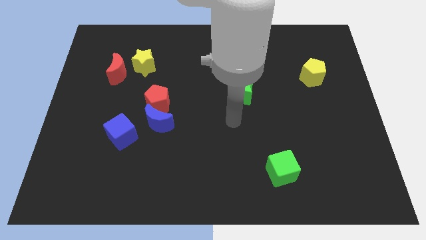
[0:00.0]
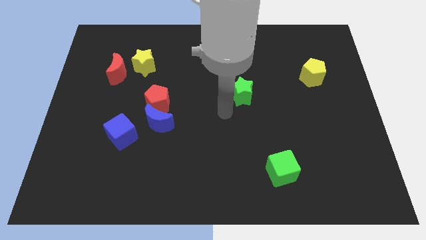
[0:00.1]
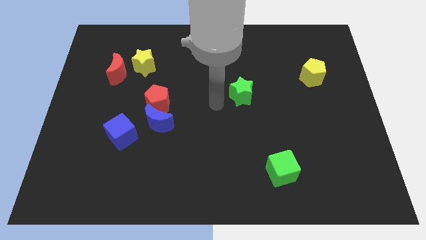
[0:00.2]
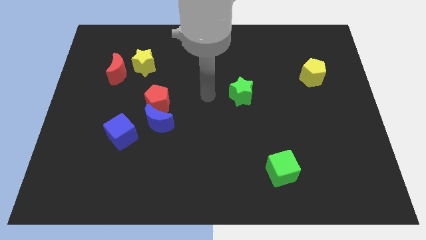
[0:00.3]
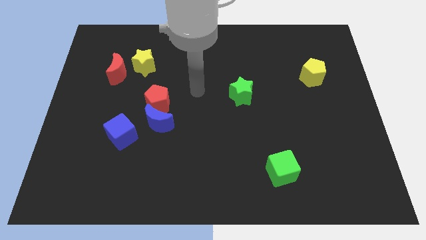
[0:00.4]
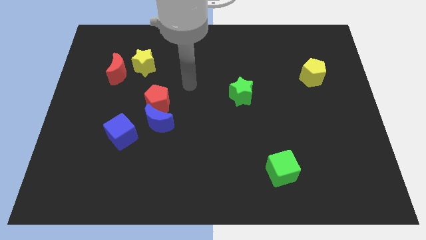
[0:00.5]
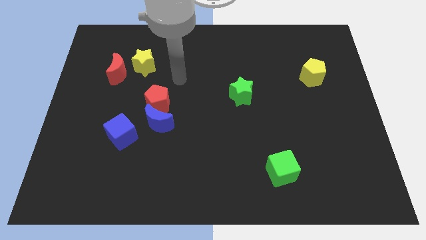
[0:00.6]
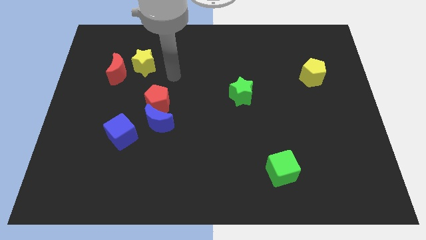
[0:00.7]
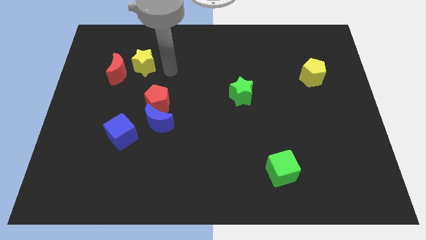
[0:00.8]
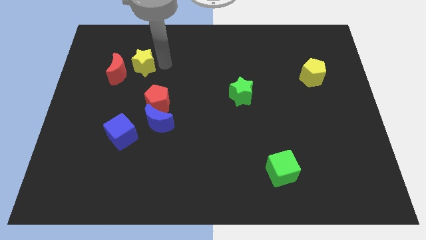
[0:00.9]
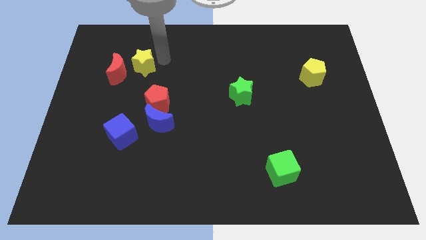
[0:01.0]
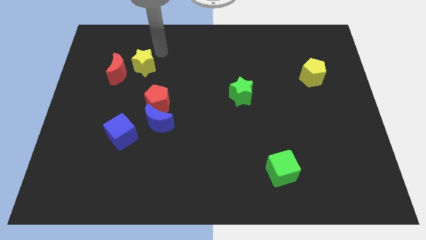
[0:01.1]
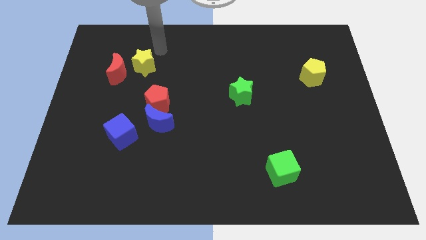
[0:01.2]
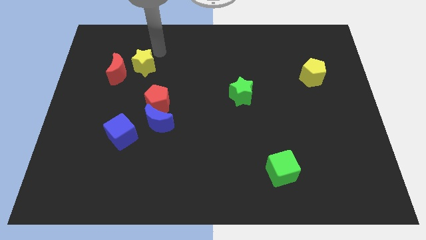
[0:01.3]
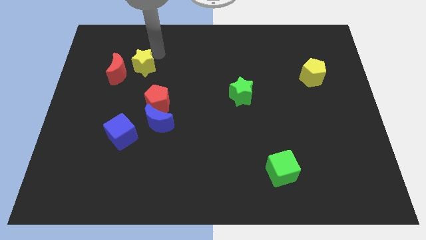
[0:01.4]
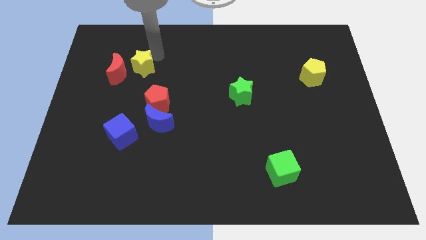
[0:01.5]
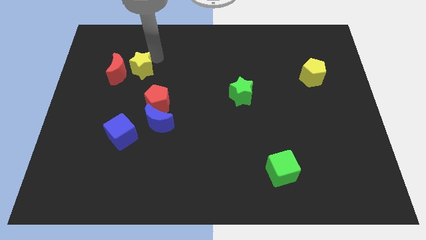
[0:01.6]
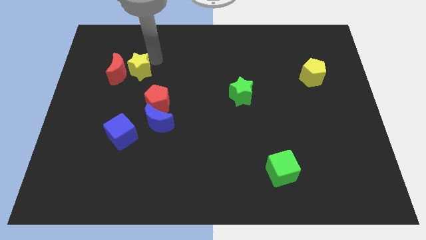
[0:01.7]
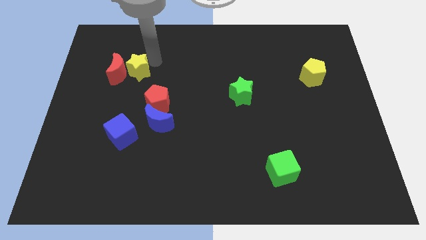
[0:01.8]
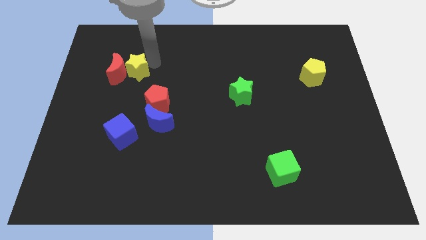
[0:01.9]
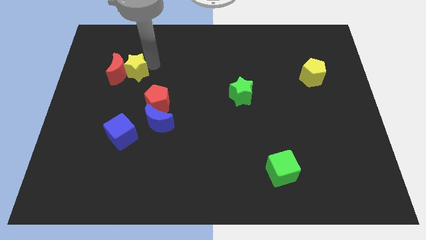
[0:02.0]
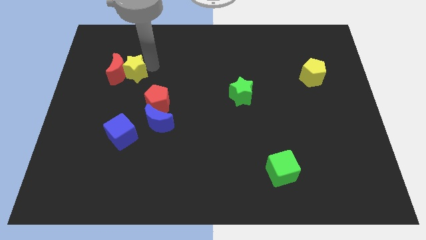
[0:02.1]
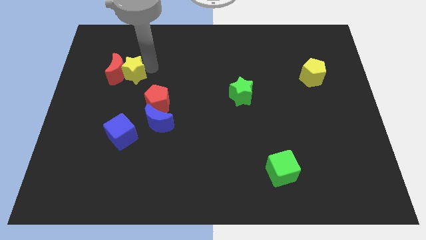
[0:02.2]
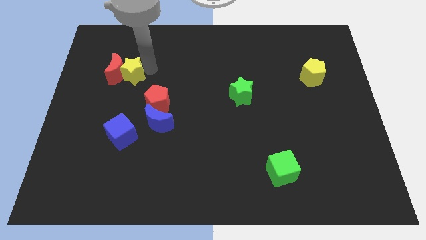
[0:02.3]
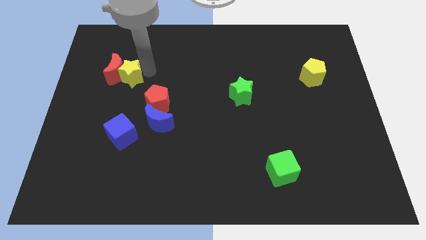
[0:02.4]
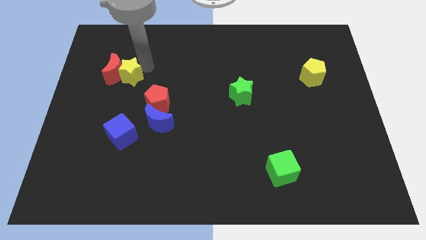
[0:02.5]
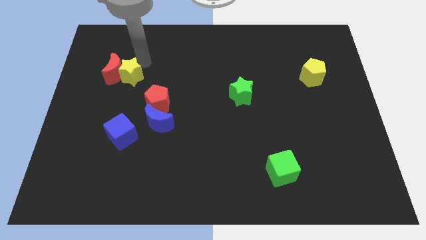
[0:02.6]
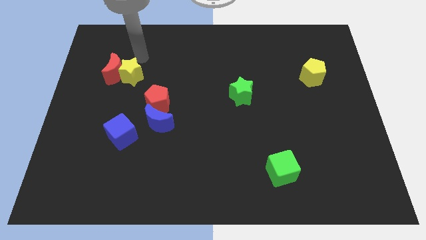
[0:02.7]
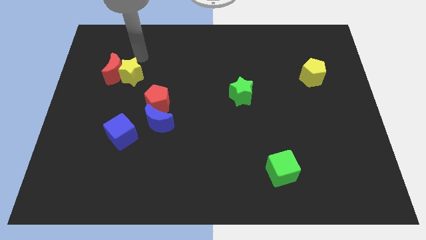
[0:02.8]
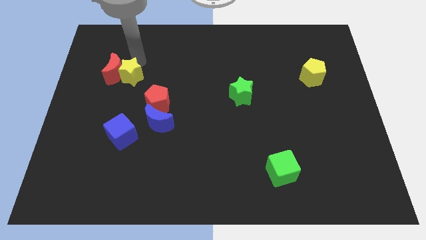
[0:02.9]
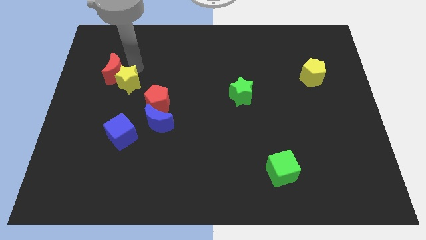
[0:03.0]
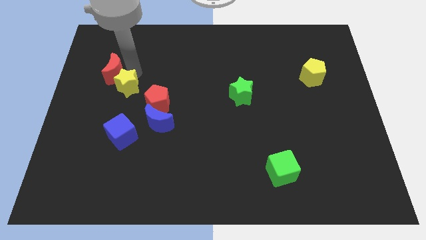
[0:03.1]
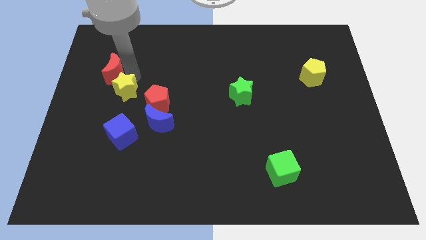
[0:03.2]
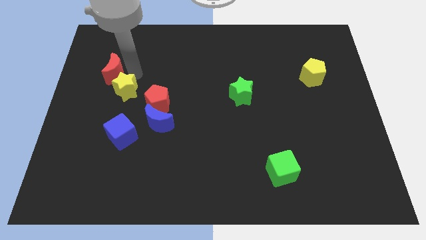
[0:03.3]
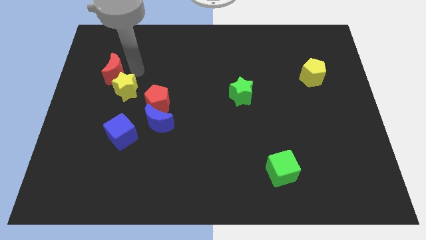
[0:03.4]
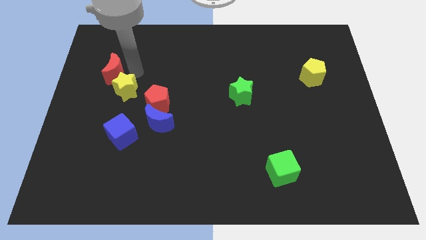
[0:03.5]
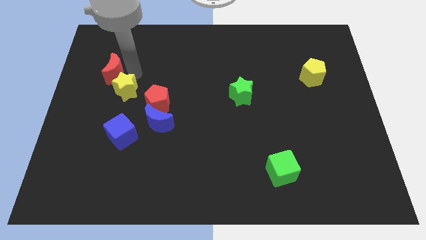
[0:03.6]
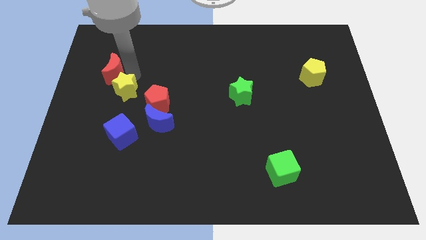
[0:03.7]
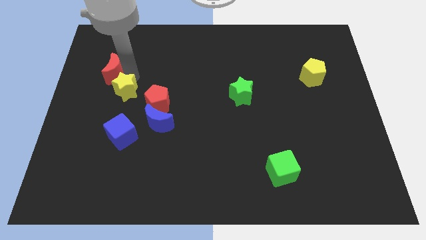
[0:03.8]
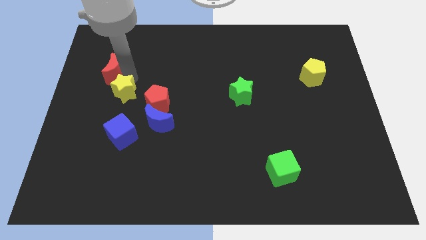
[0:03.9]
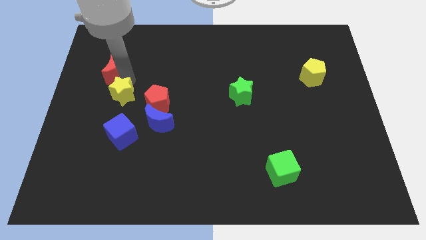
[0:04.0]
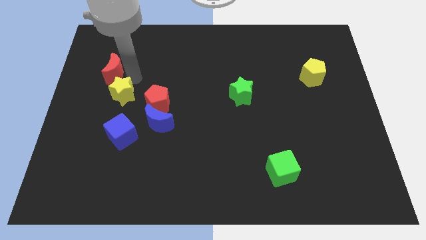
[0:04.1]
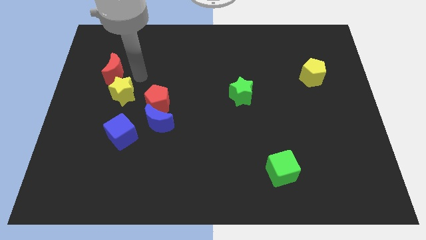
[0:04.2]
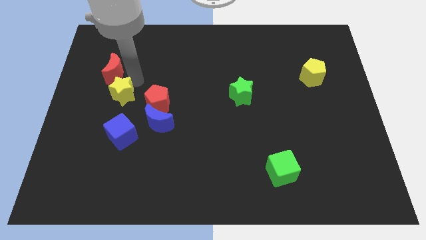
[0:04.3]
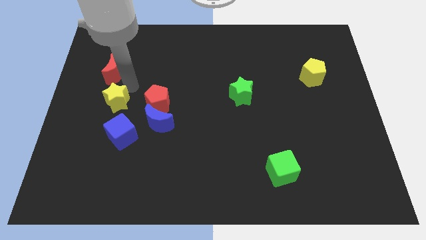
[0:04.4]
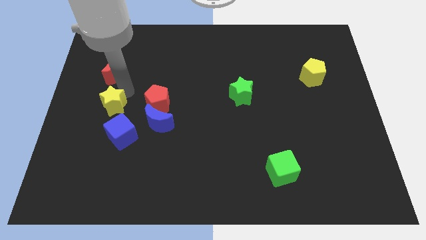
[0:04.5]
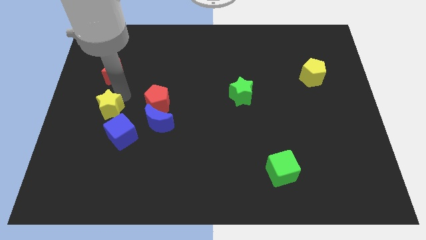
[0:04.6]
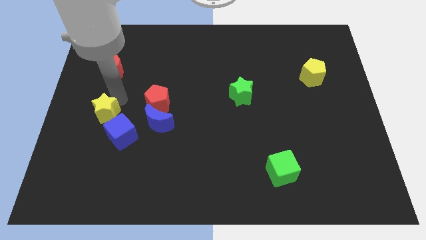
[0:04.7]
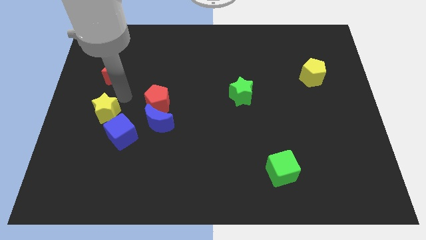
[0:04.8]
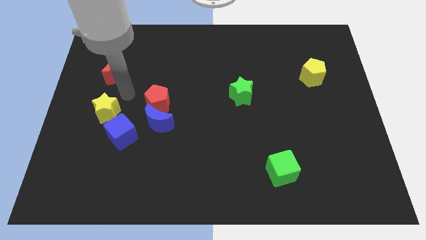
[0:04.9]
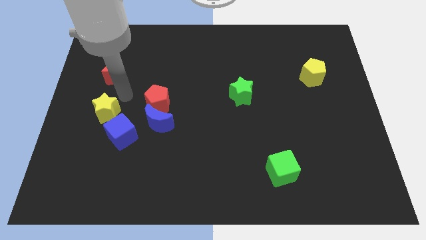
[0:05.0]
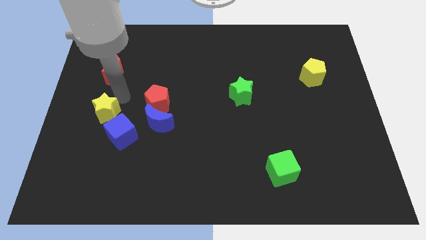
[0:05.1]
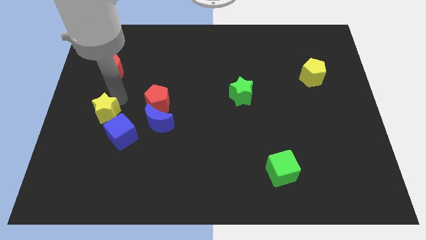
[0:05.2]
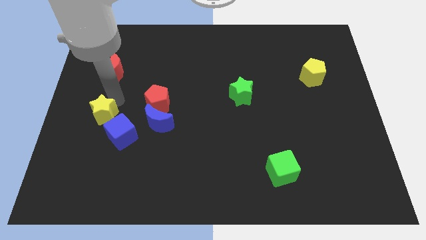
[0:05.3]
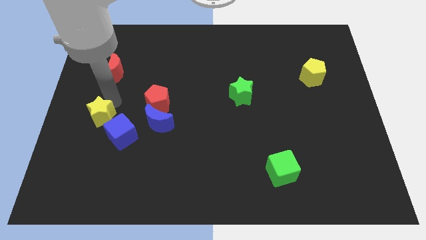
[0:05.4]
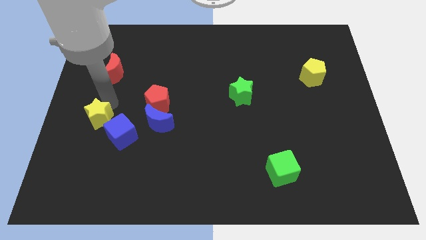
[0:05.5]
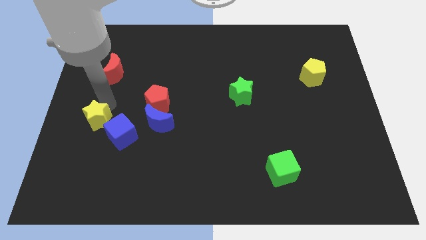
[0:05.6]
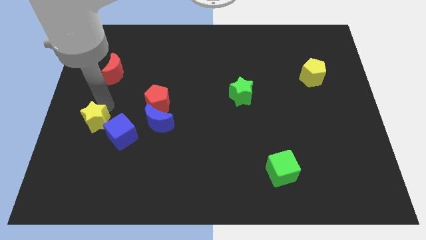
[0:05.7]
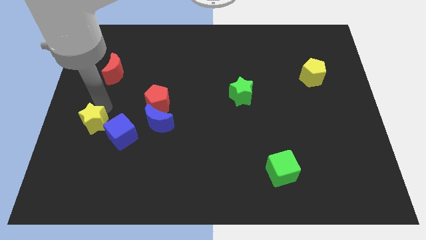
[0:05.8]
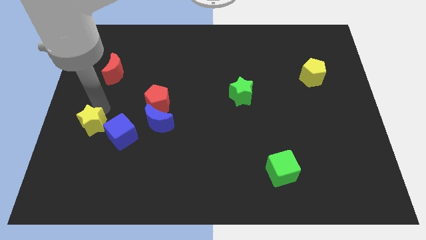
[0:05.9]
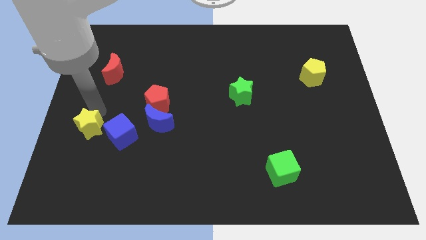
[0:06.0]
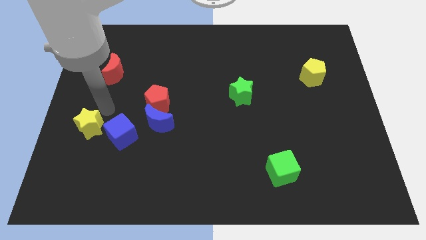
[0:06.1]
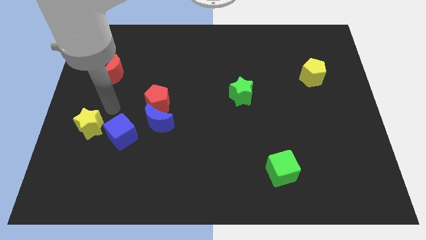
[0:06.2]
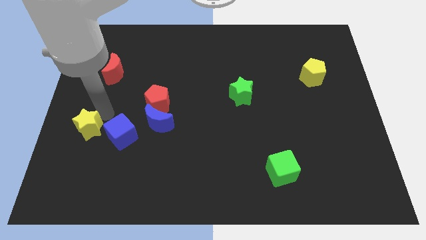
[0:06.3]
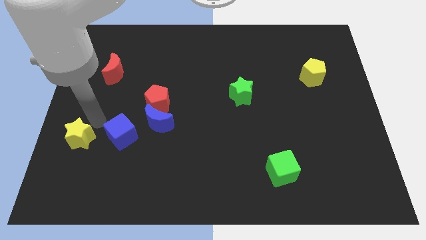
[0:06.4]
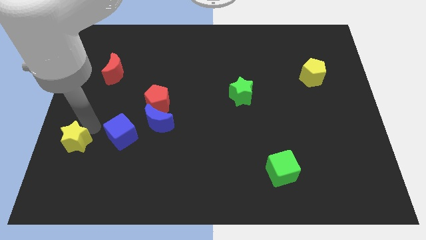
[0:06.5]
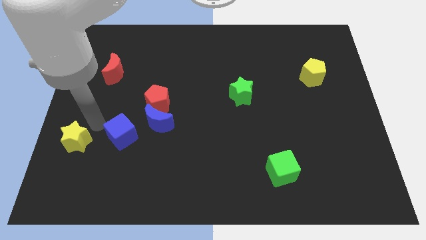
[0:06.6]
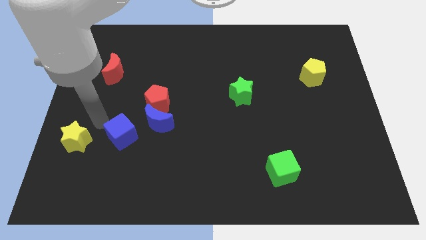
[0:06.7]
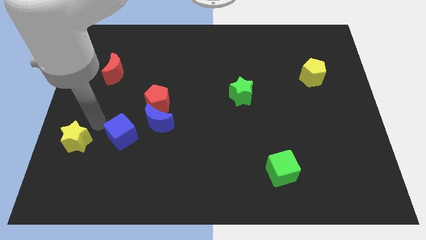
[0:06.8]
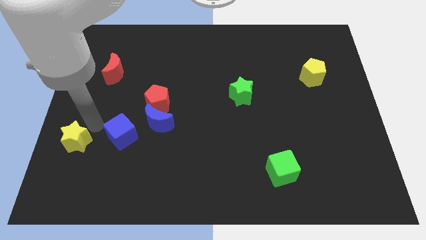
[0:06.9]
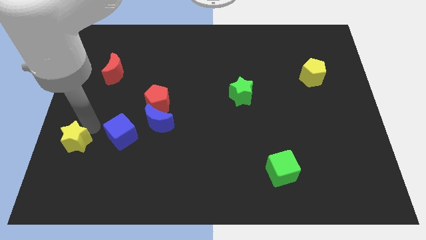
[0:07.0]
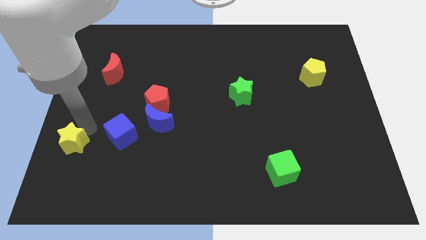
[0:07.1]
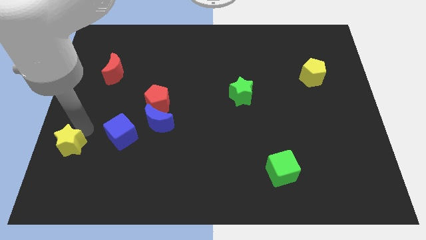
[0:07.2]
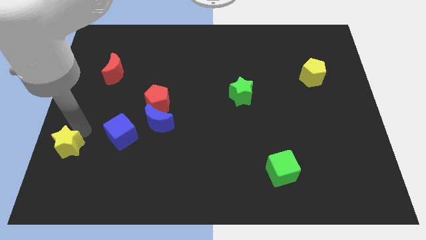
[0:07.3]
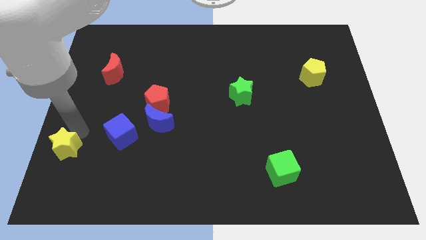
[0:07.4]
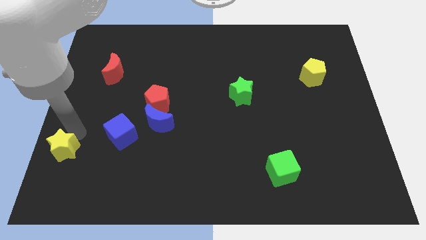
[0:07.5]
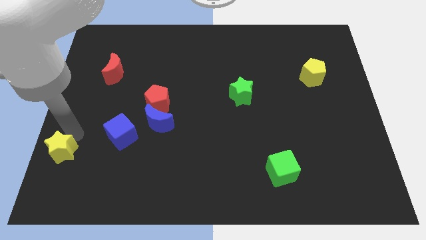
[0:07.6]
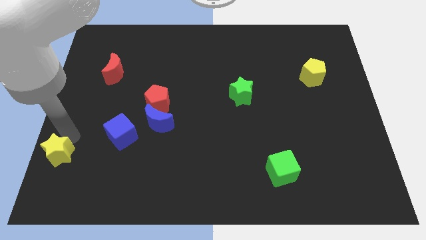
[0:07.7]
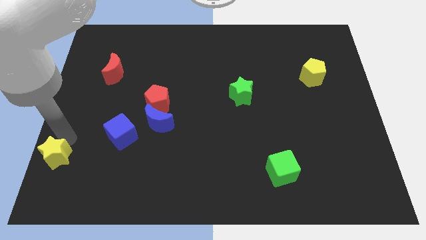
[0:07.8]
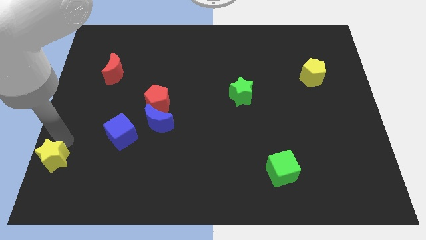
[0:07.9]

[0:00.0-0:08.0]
push the yellow star to the lower left corner
